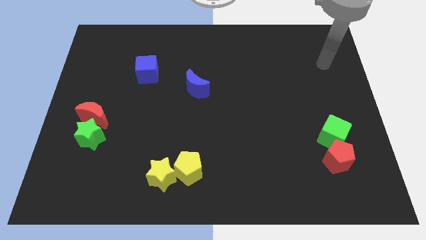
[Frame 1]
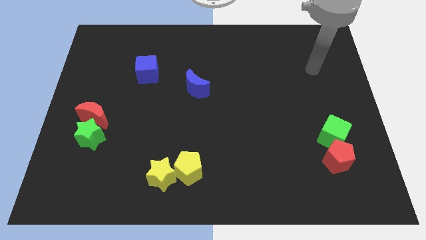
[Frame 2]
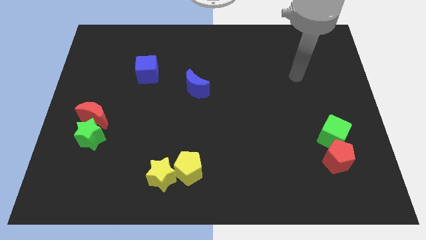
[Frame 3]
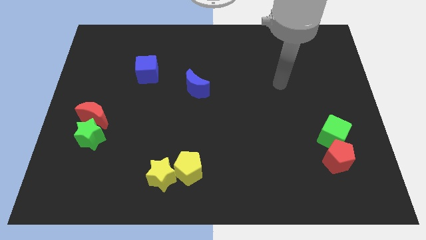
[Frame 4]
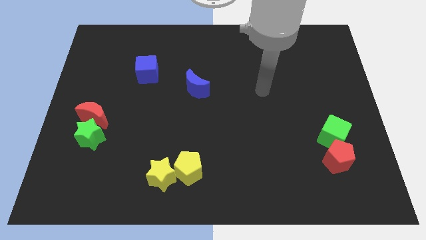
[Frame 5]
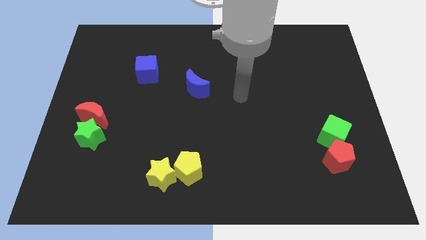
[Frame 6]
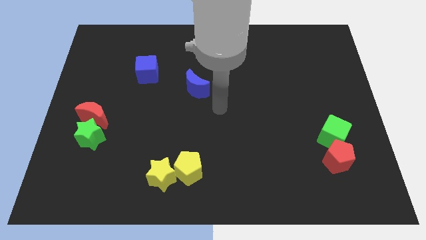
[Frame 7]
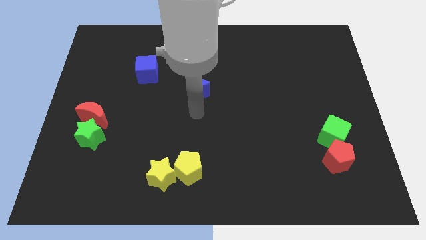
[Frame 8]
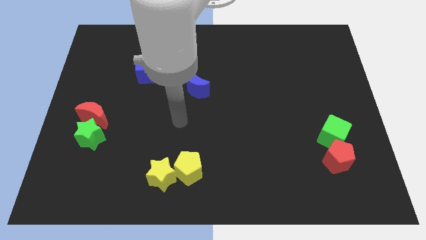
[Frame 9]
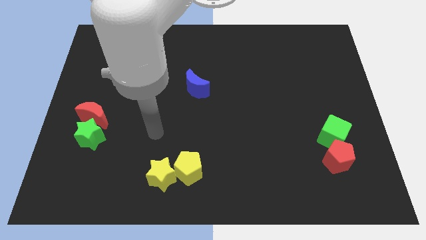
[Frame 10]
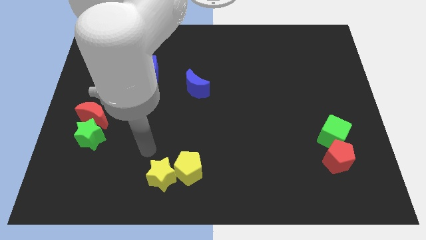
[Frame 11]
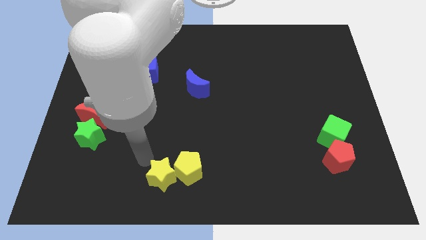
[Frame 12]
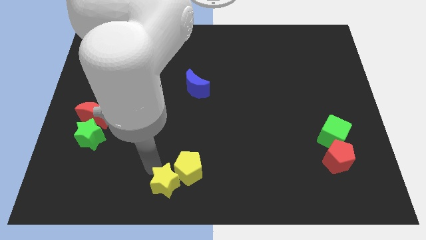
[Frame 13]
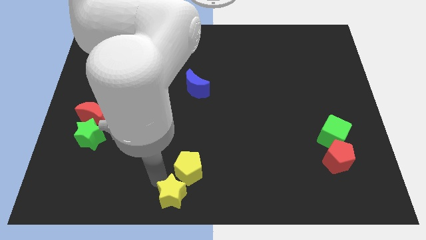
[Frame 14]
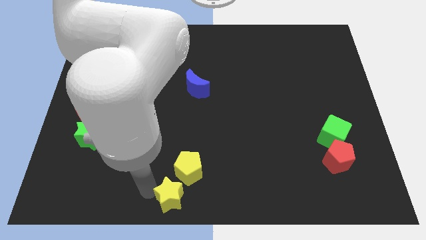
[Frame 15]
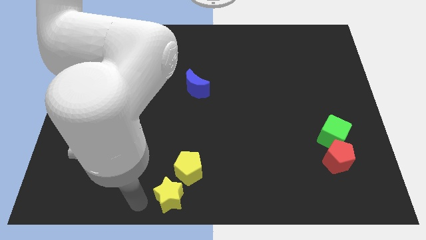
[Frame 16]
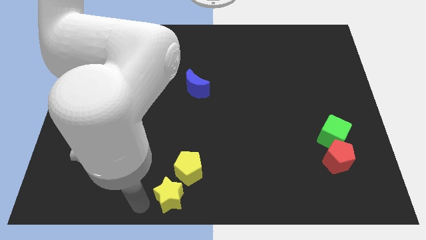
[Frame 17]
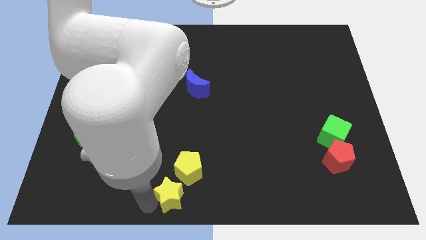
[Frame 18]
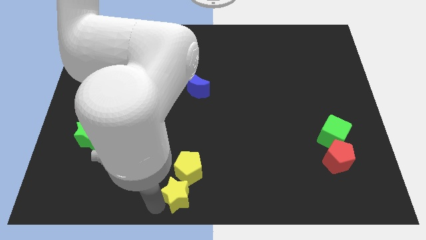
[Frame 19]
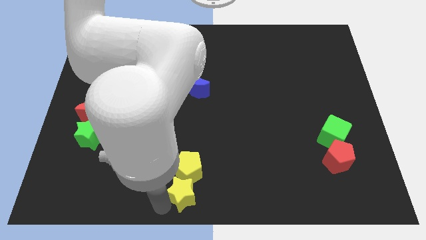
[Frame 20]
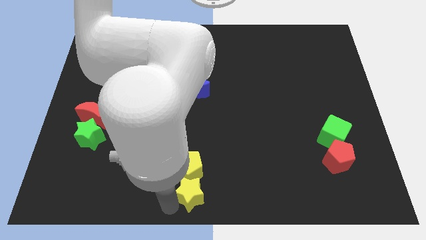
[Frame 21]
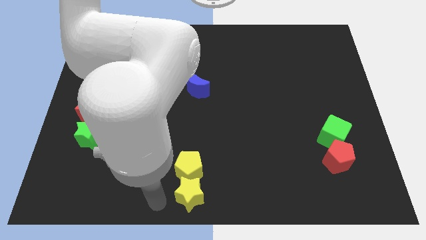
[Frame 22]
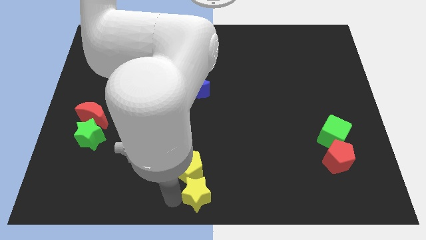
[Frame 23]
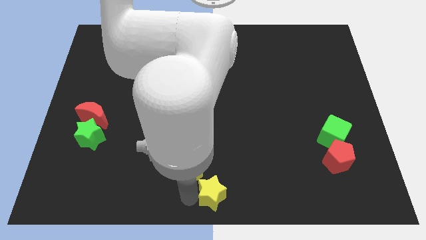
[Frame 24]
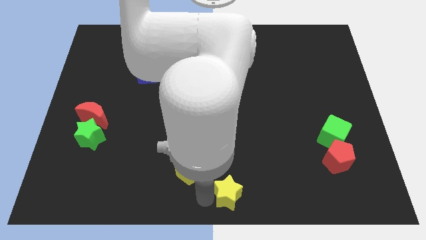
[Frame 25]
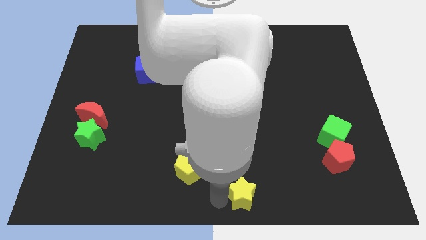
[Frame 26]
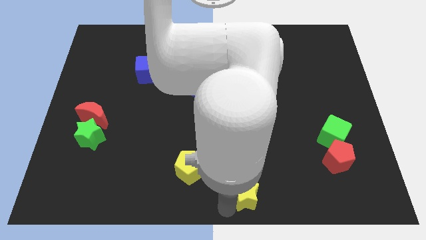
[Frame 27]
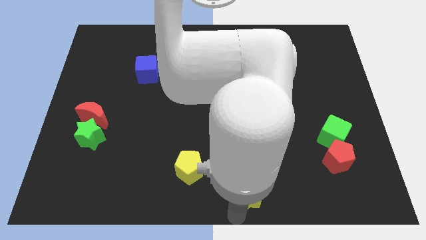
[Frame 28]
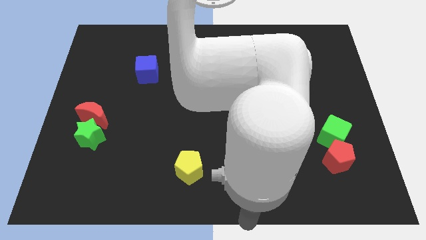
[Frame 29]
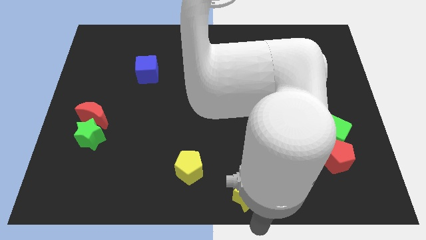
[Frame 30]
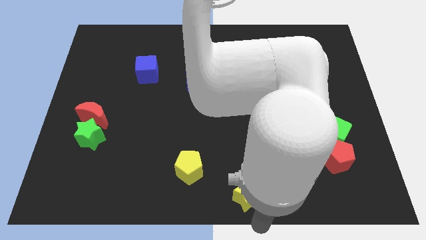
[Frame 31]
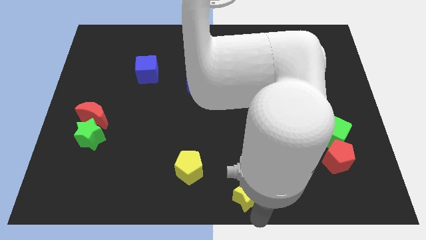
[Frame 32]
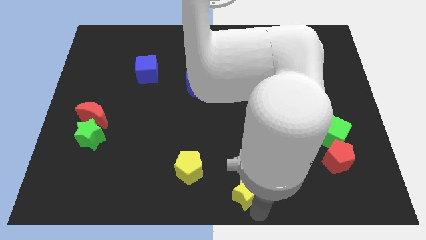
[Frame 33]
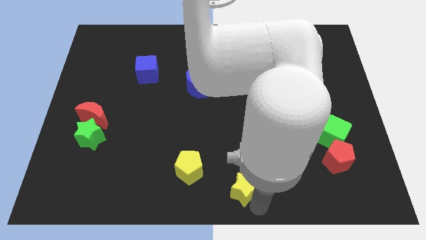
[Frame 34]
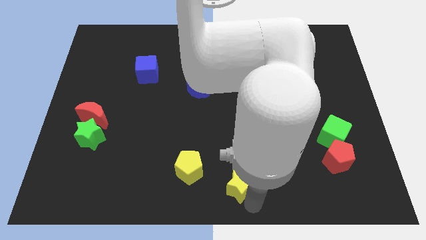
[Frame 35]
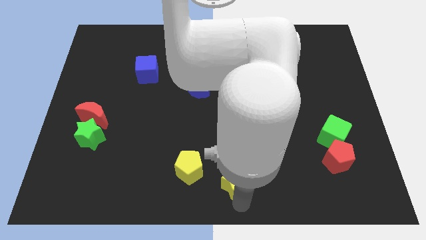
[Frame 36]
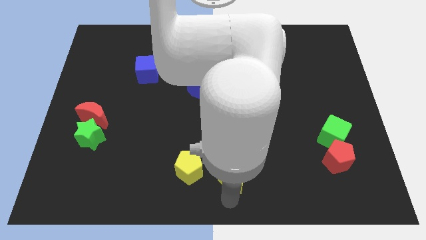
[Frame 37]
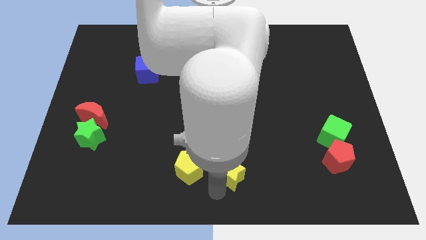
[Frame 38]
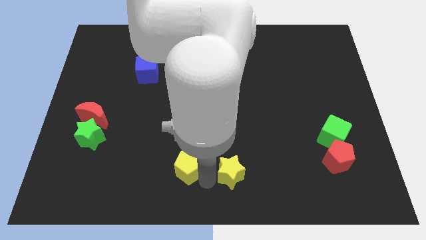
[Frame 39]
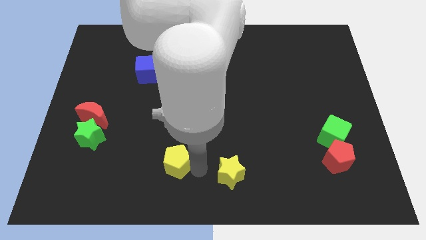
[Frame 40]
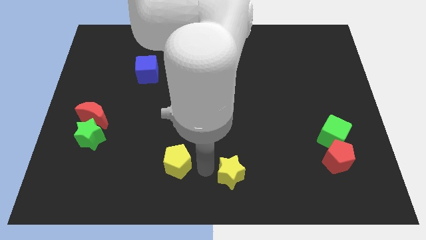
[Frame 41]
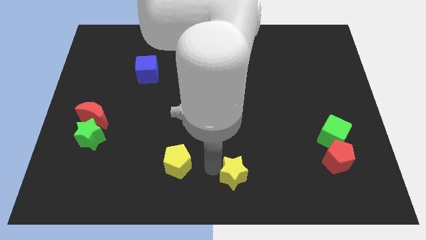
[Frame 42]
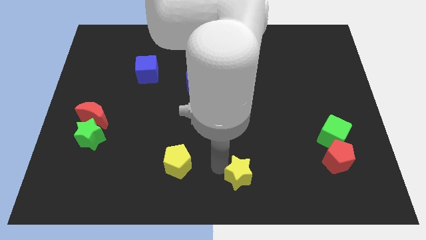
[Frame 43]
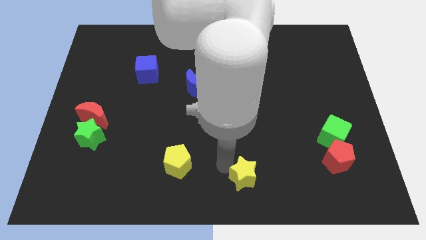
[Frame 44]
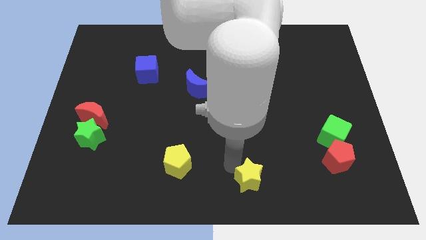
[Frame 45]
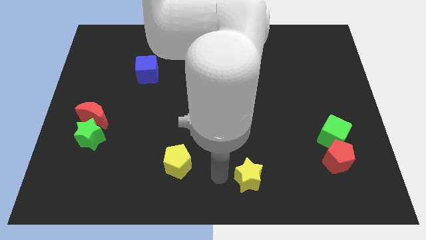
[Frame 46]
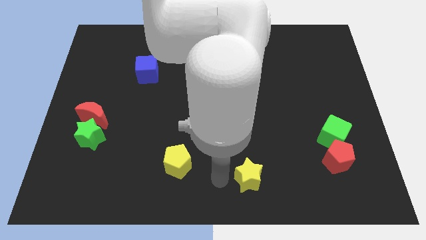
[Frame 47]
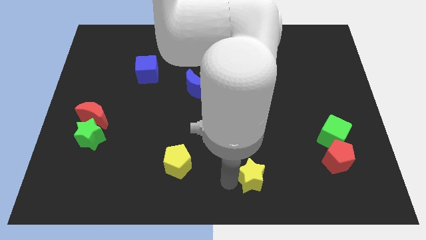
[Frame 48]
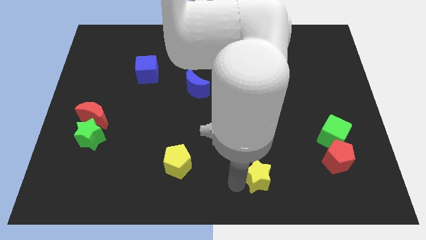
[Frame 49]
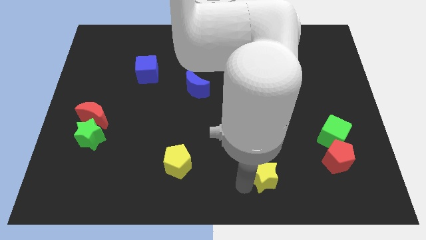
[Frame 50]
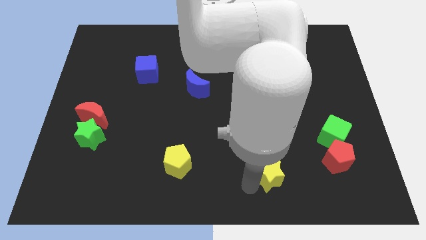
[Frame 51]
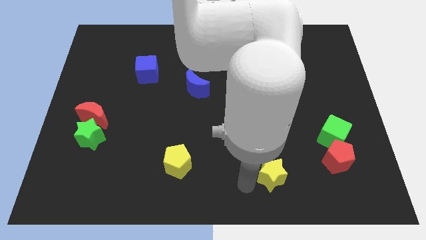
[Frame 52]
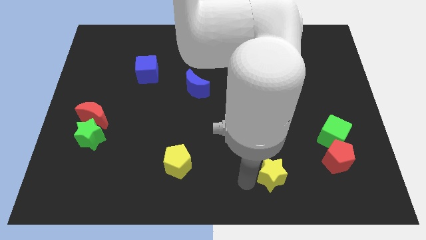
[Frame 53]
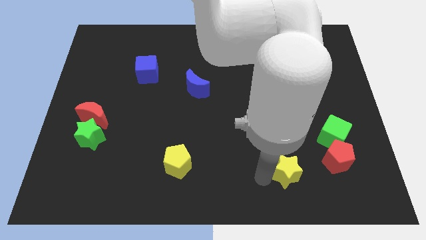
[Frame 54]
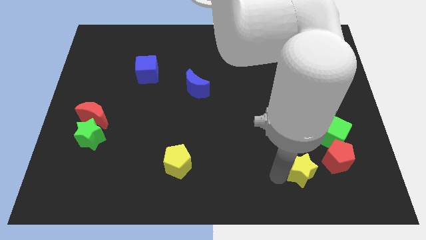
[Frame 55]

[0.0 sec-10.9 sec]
move the yellow star to the bottom left side of the green cube

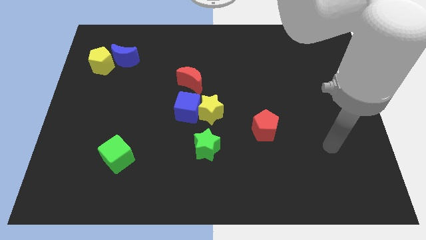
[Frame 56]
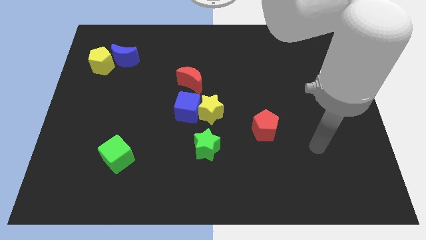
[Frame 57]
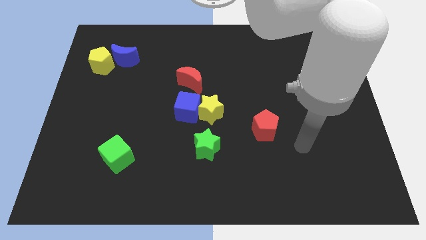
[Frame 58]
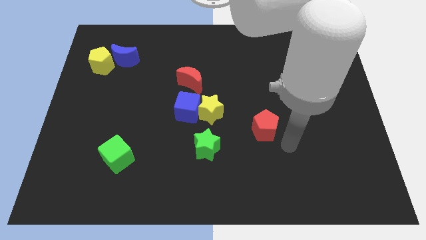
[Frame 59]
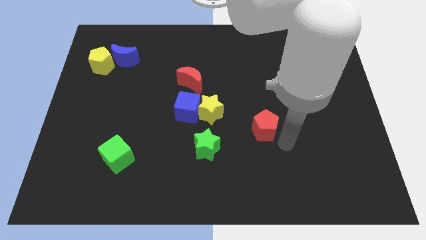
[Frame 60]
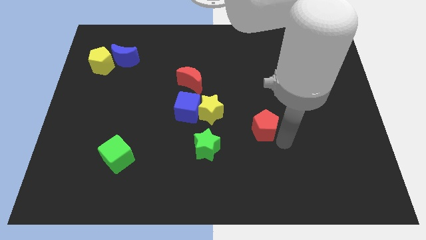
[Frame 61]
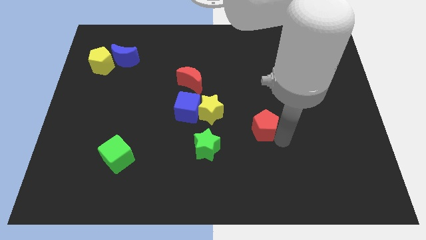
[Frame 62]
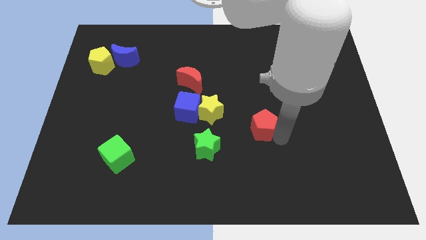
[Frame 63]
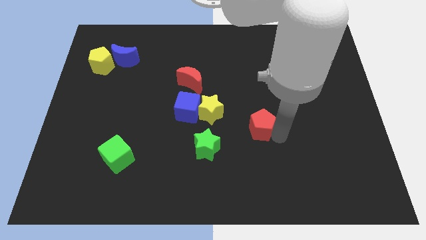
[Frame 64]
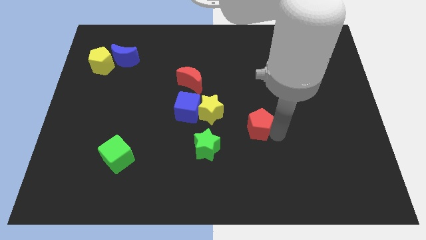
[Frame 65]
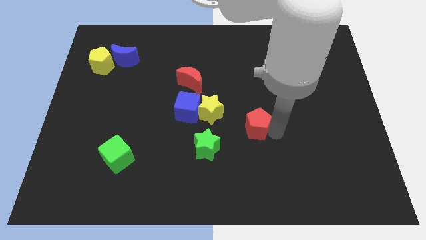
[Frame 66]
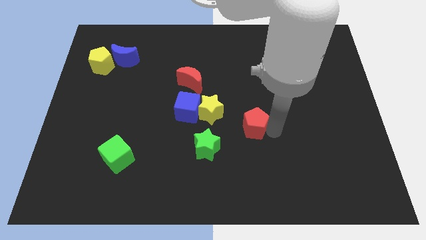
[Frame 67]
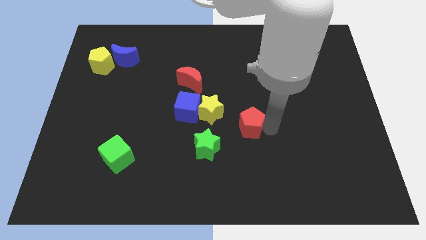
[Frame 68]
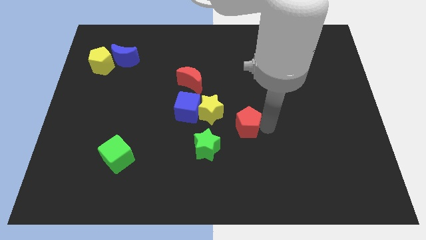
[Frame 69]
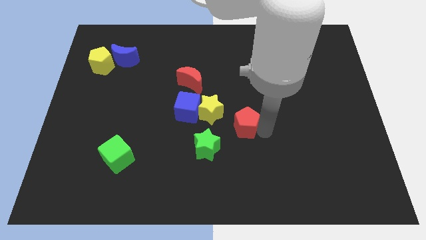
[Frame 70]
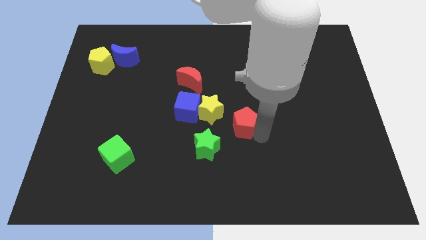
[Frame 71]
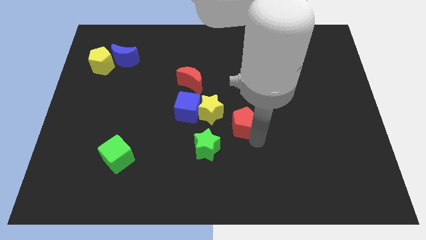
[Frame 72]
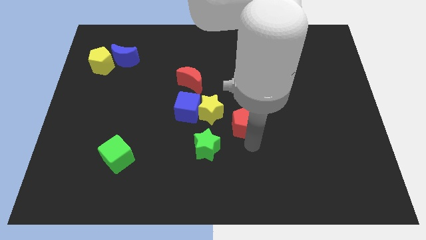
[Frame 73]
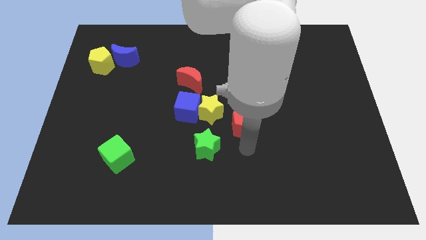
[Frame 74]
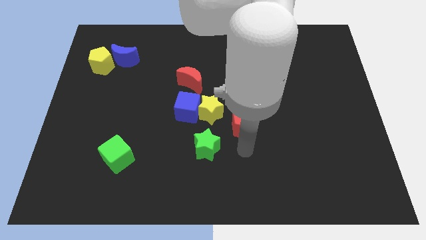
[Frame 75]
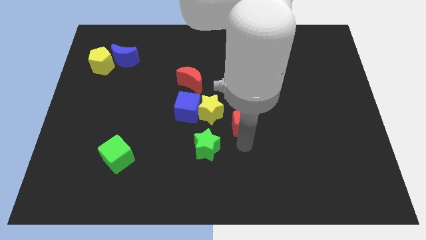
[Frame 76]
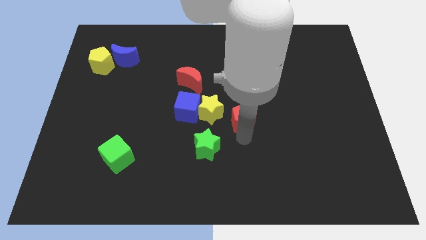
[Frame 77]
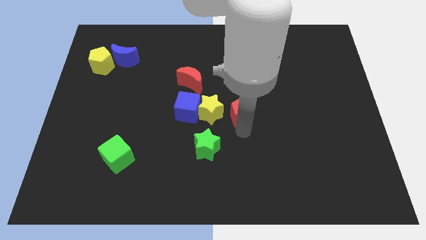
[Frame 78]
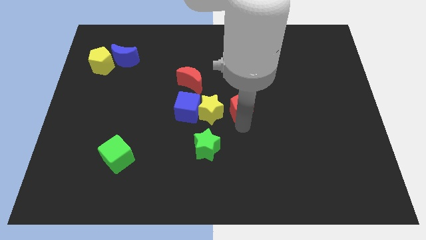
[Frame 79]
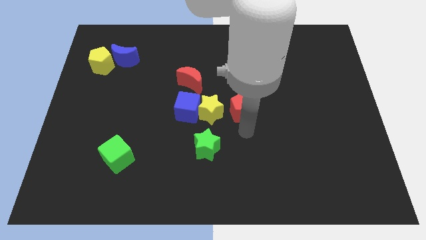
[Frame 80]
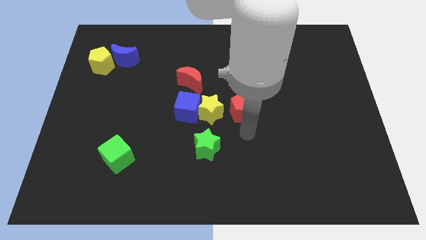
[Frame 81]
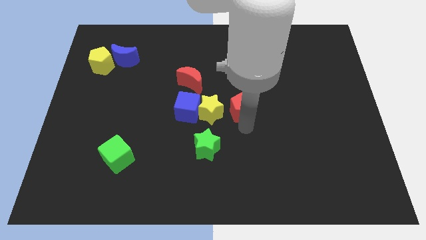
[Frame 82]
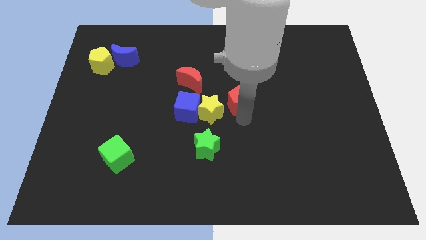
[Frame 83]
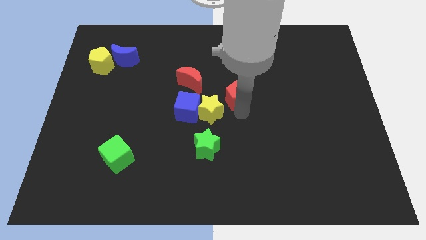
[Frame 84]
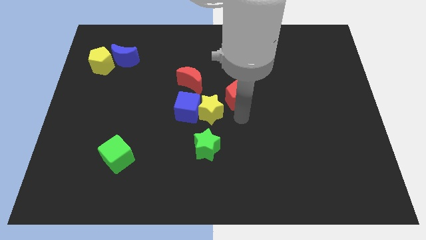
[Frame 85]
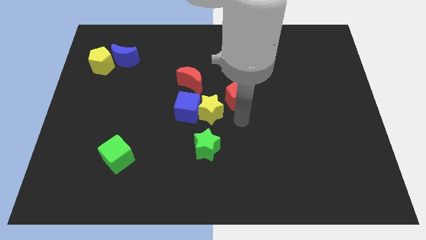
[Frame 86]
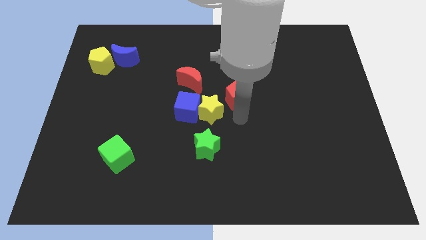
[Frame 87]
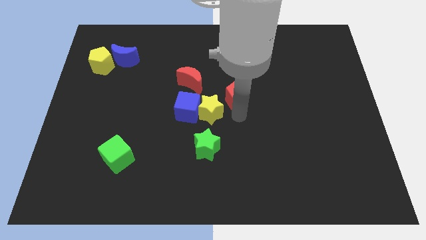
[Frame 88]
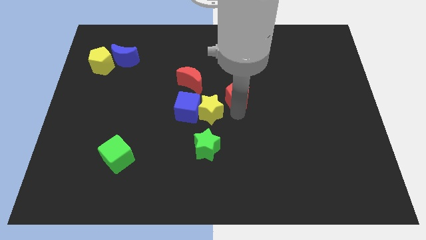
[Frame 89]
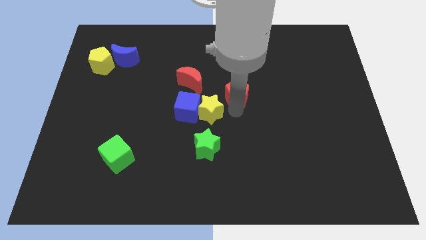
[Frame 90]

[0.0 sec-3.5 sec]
move the red pentagon to the right side of the red moon
